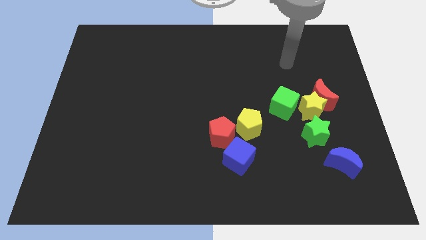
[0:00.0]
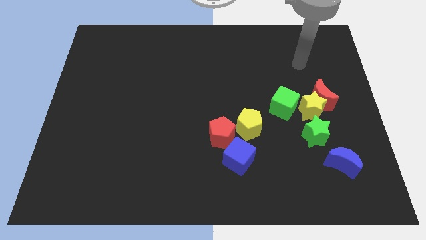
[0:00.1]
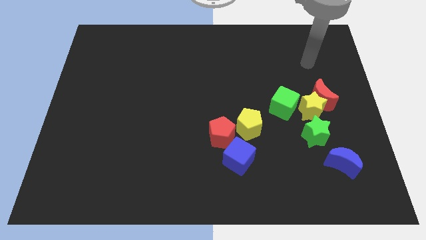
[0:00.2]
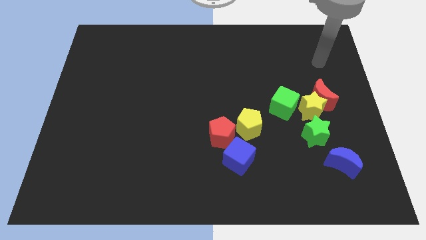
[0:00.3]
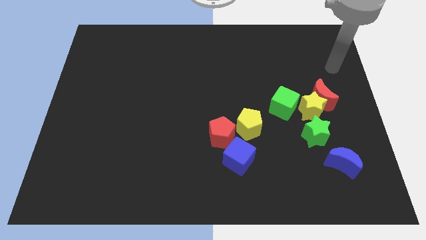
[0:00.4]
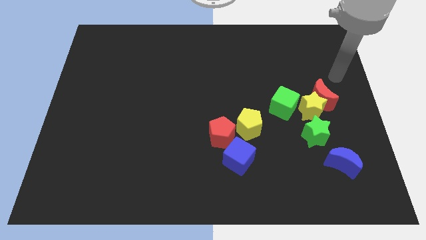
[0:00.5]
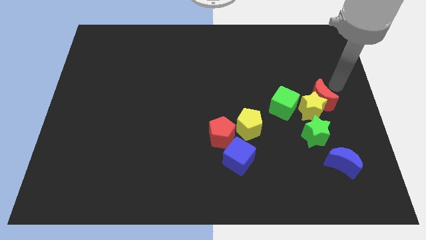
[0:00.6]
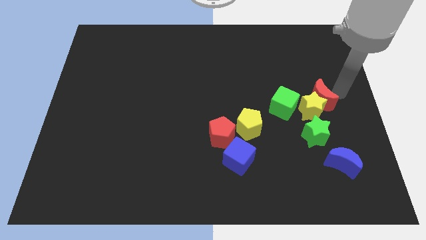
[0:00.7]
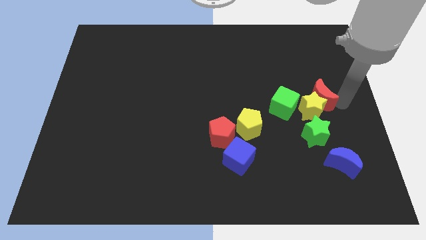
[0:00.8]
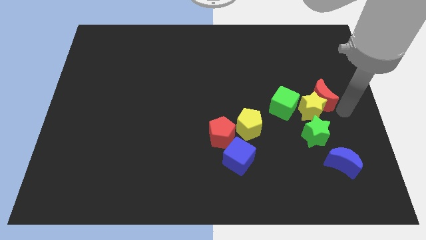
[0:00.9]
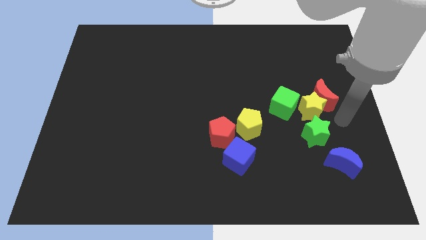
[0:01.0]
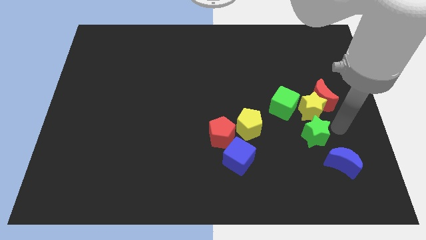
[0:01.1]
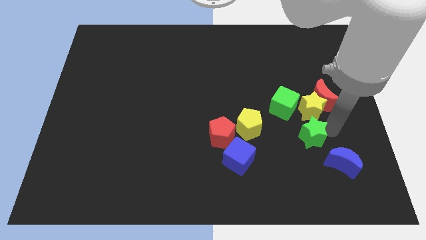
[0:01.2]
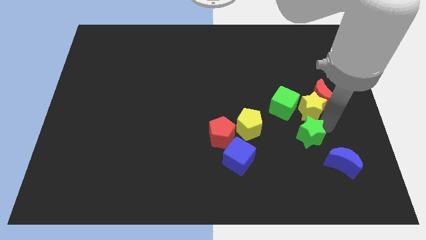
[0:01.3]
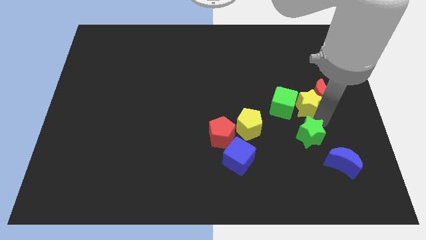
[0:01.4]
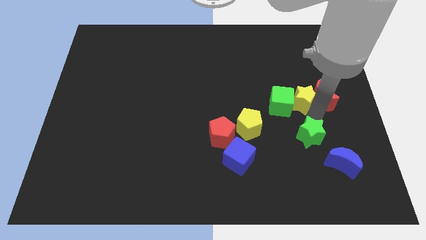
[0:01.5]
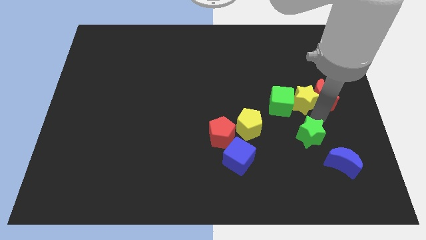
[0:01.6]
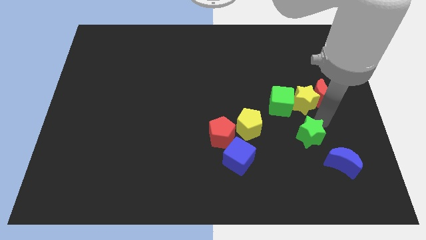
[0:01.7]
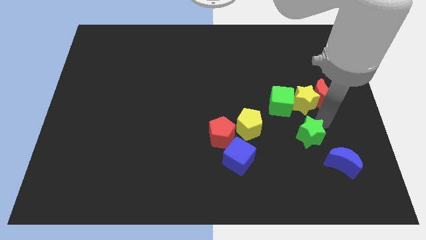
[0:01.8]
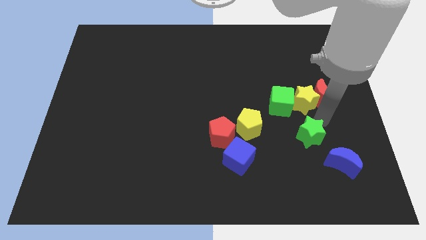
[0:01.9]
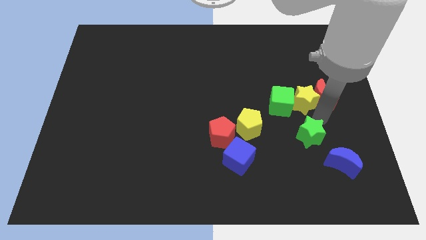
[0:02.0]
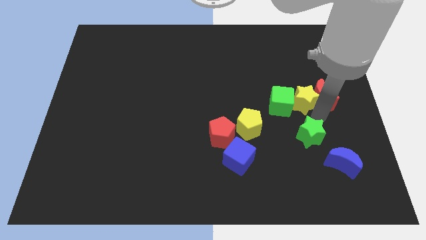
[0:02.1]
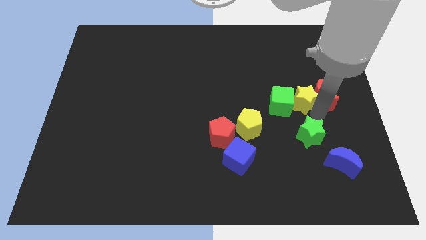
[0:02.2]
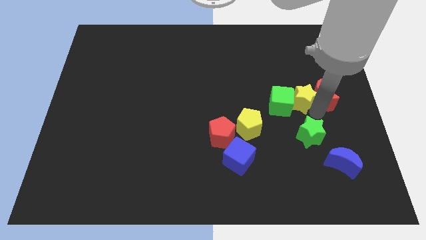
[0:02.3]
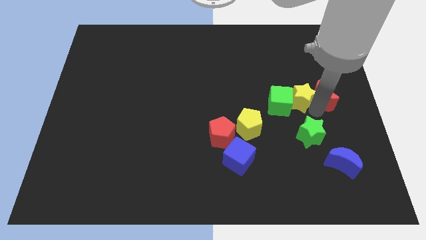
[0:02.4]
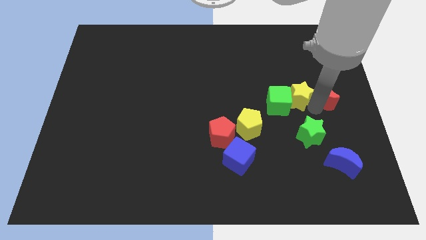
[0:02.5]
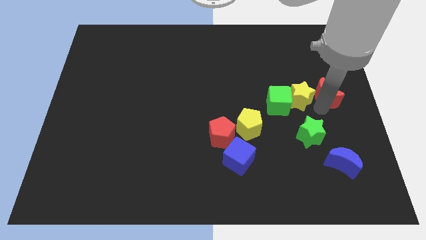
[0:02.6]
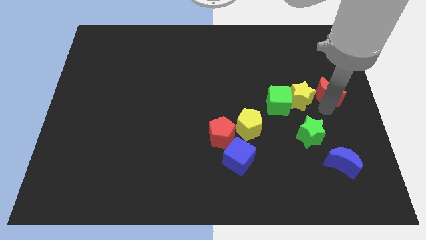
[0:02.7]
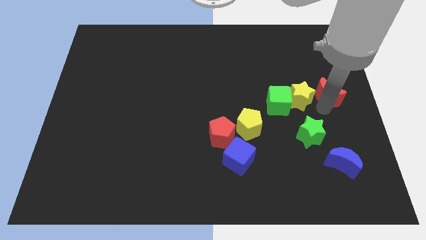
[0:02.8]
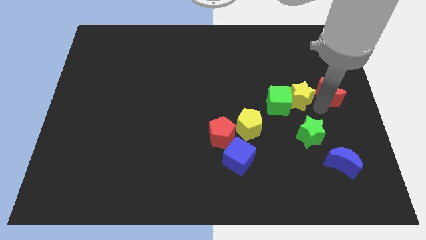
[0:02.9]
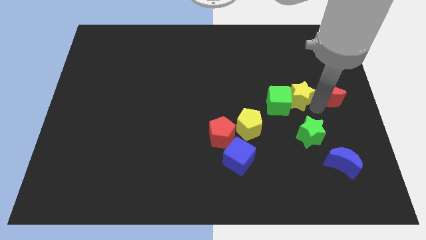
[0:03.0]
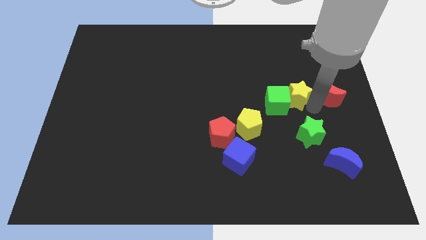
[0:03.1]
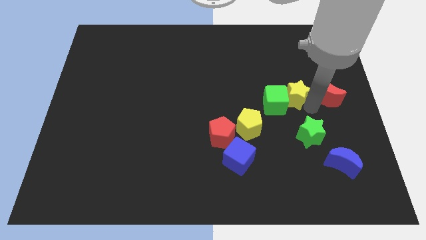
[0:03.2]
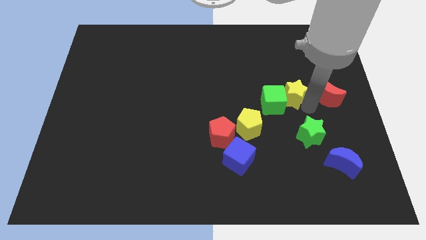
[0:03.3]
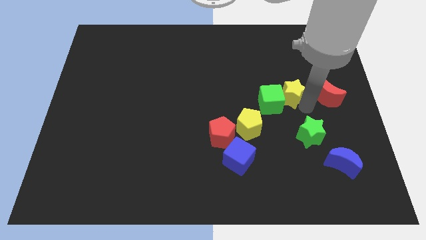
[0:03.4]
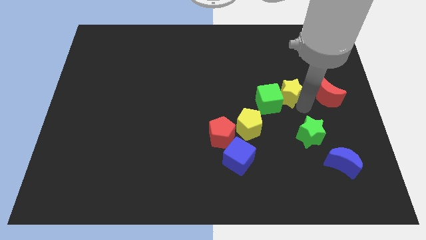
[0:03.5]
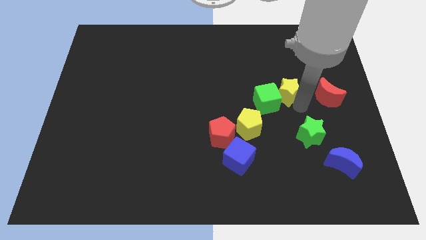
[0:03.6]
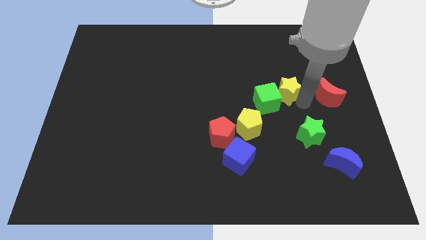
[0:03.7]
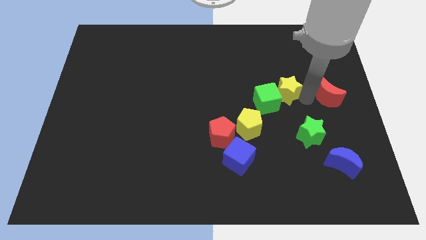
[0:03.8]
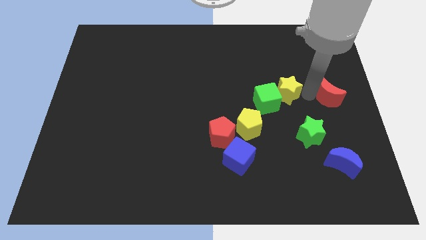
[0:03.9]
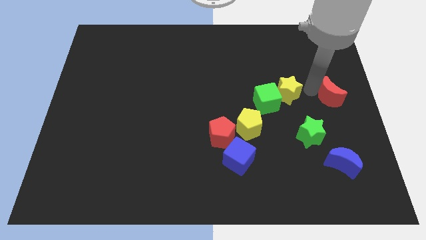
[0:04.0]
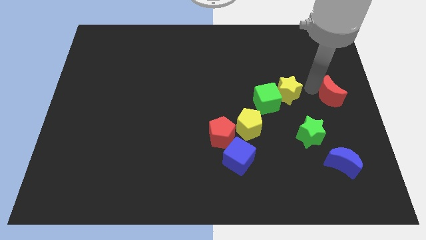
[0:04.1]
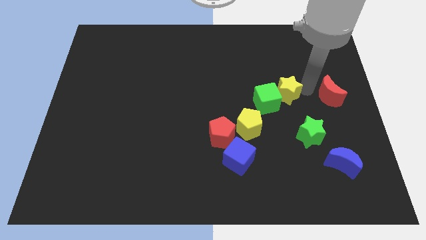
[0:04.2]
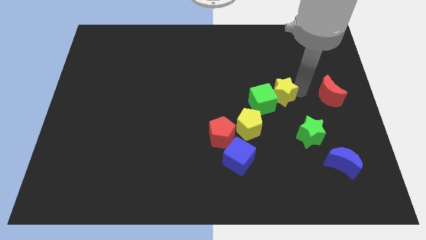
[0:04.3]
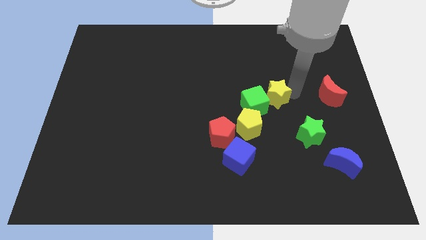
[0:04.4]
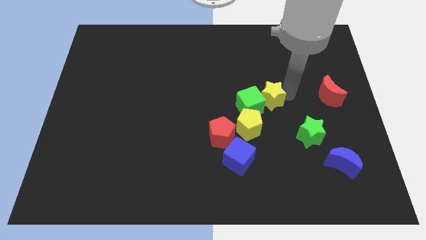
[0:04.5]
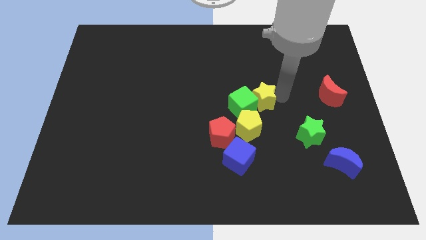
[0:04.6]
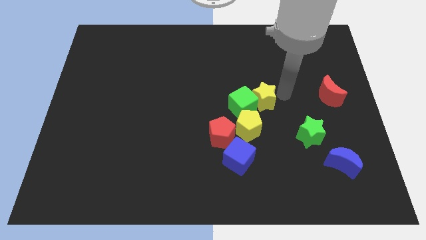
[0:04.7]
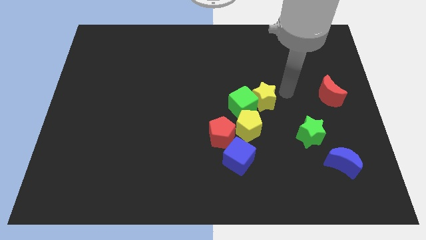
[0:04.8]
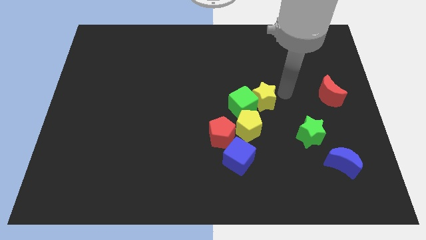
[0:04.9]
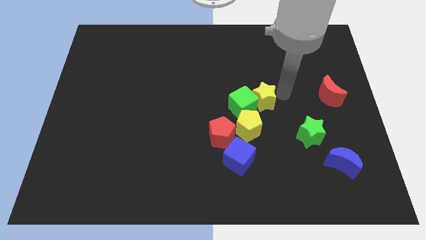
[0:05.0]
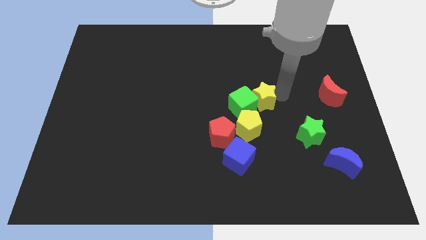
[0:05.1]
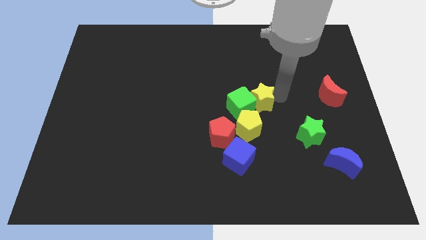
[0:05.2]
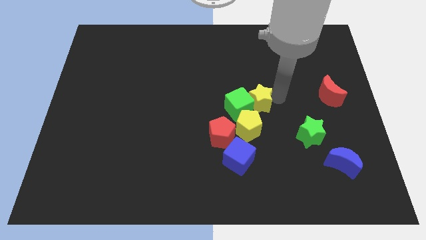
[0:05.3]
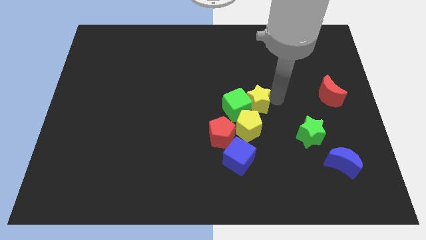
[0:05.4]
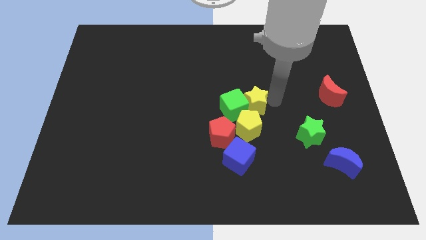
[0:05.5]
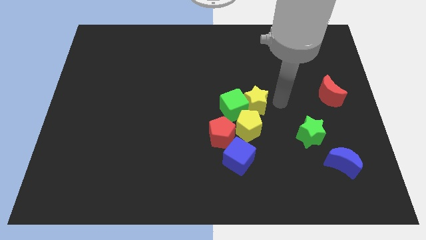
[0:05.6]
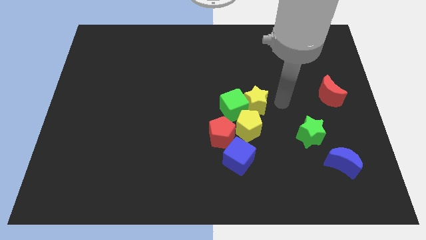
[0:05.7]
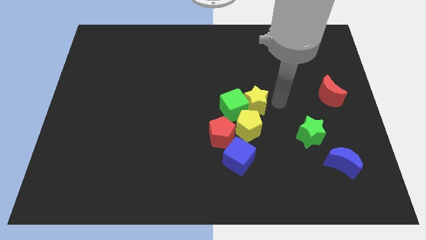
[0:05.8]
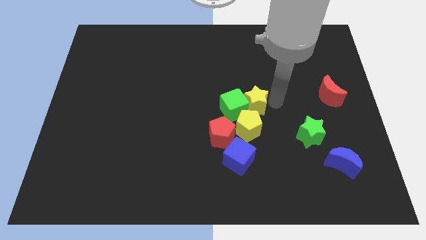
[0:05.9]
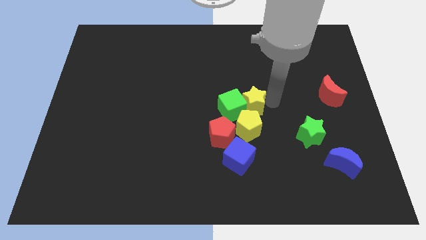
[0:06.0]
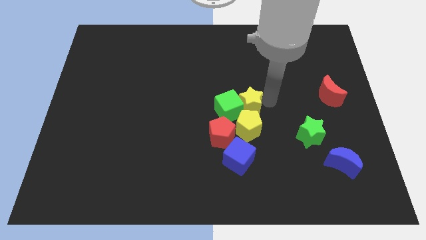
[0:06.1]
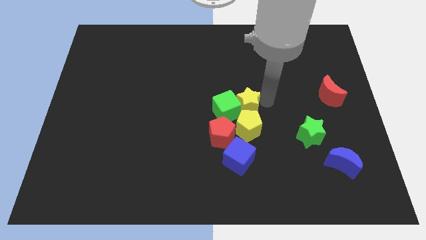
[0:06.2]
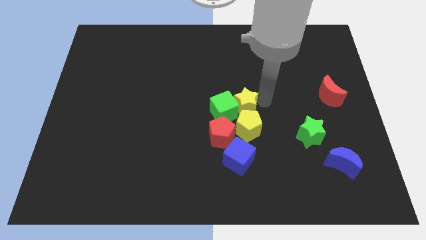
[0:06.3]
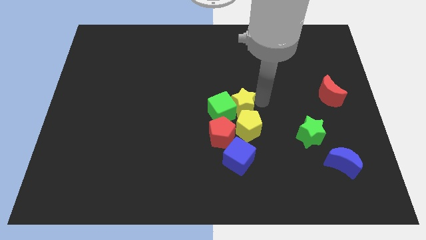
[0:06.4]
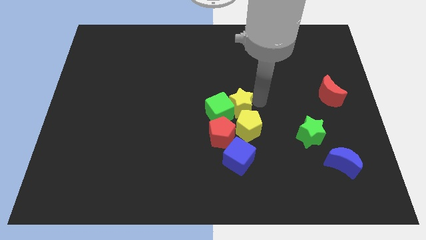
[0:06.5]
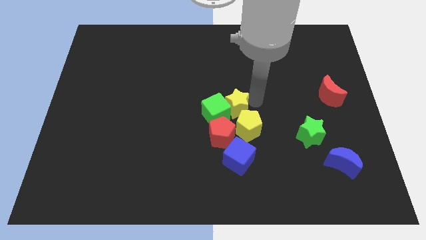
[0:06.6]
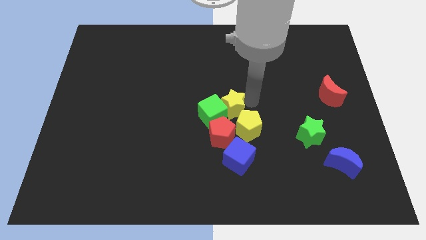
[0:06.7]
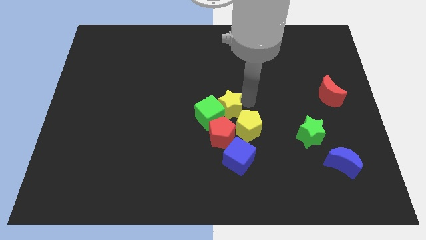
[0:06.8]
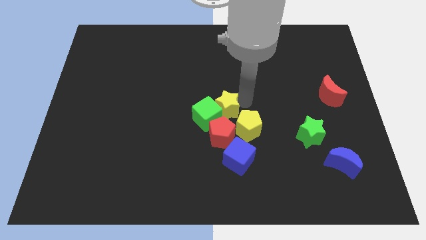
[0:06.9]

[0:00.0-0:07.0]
push the yellow star to the left

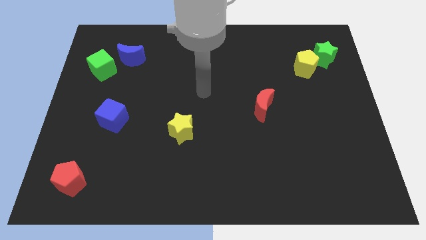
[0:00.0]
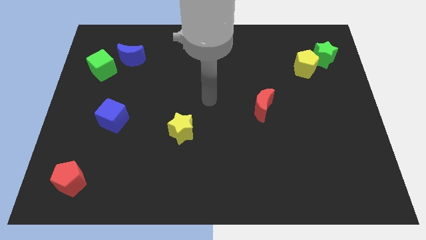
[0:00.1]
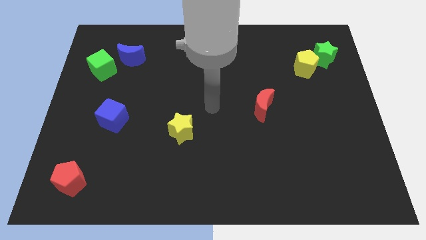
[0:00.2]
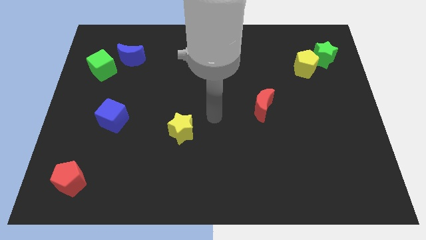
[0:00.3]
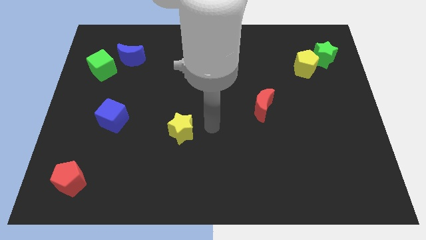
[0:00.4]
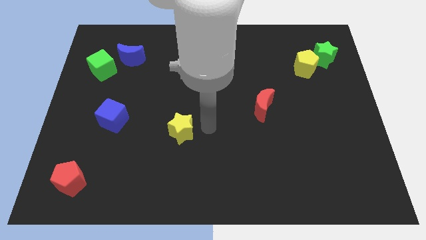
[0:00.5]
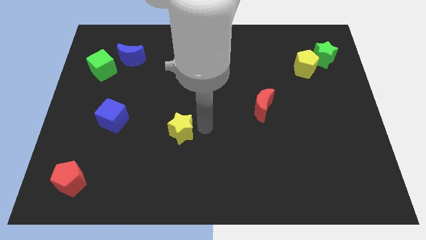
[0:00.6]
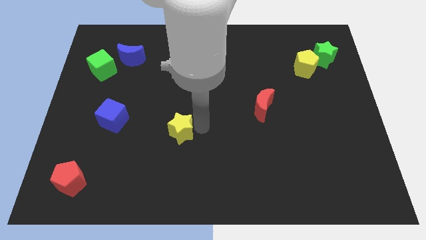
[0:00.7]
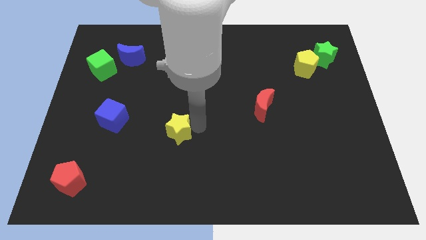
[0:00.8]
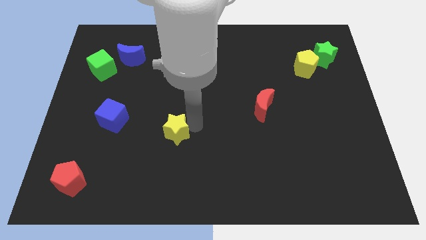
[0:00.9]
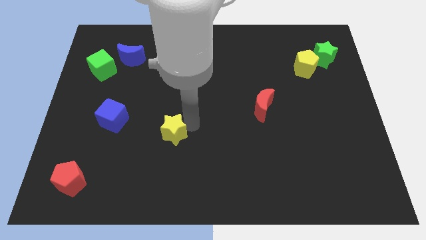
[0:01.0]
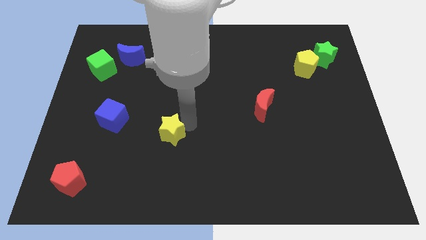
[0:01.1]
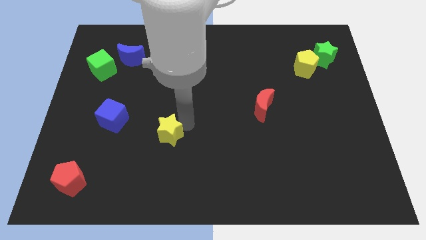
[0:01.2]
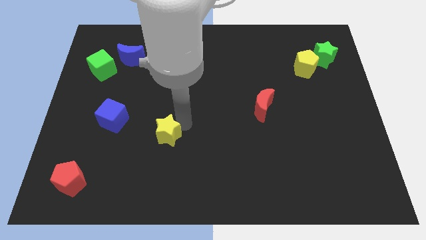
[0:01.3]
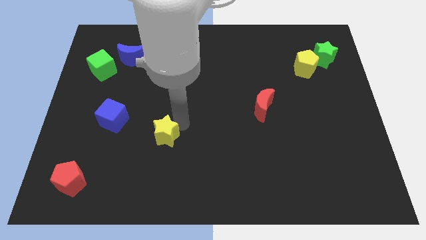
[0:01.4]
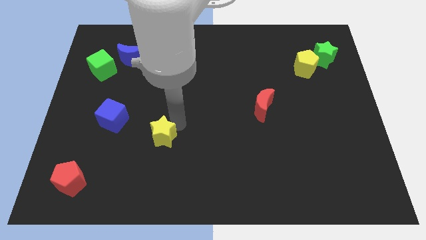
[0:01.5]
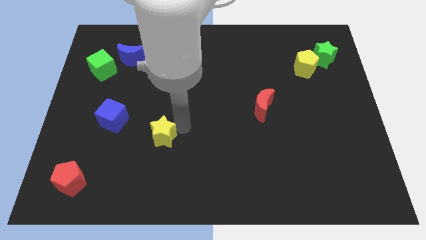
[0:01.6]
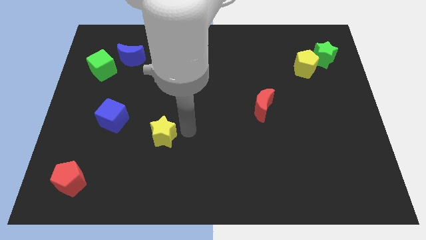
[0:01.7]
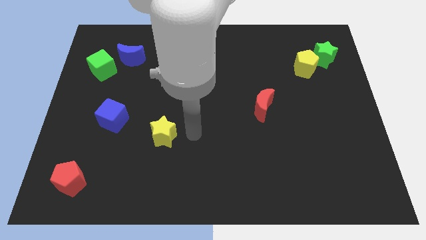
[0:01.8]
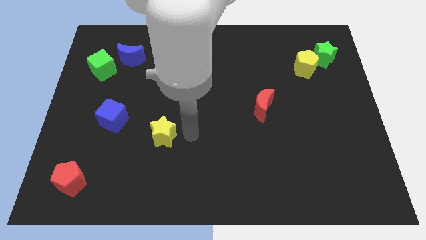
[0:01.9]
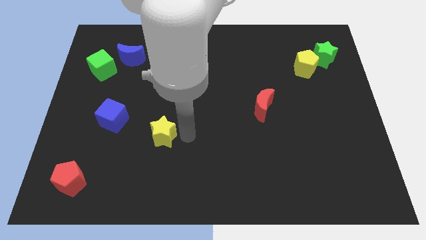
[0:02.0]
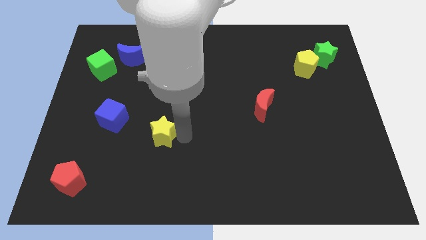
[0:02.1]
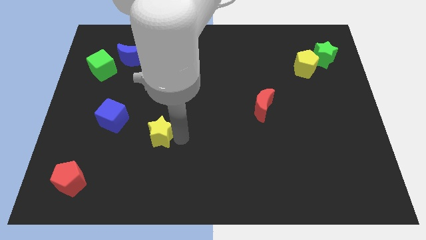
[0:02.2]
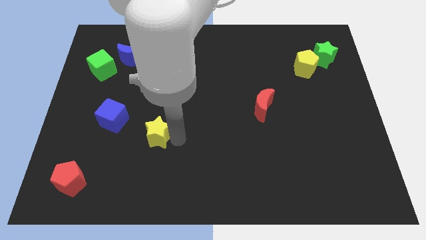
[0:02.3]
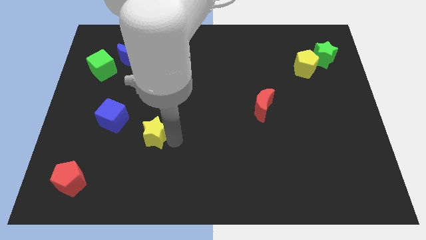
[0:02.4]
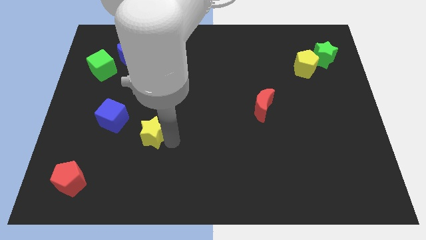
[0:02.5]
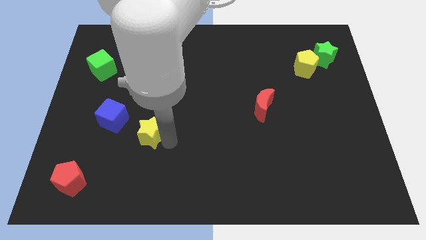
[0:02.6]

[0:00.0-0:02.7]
slightly move the yellow star left
